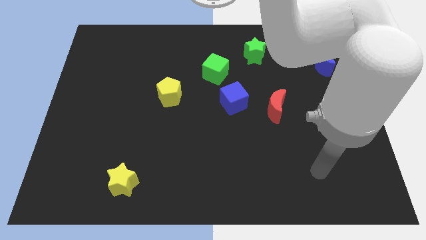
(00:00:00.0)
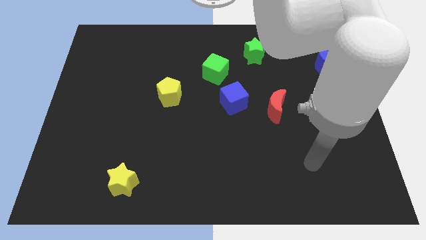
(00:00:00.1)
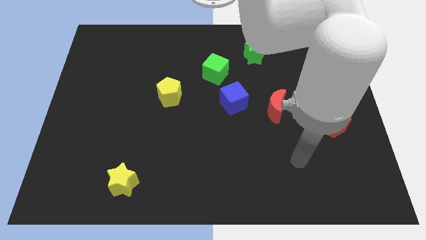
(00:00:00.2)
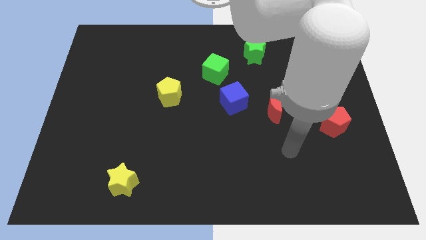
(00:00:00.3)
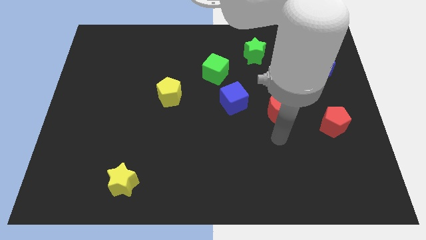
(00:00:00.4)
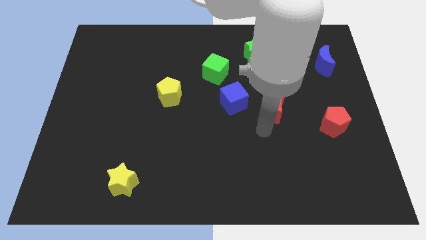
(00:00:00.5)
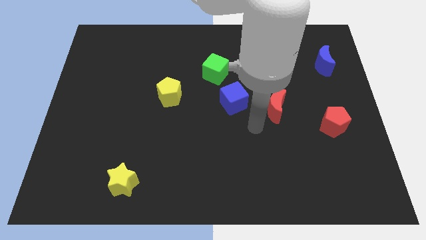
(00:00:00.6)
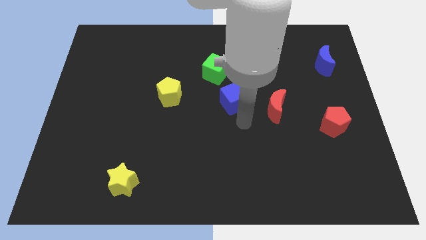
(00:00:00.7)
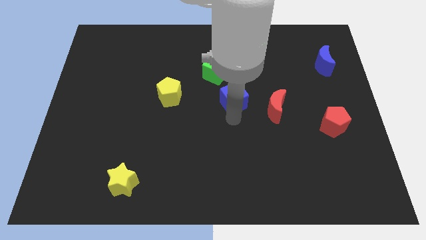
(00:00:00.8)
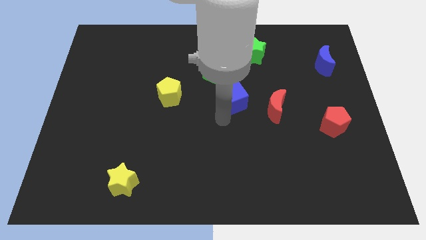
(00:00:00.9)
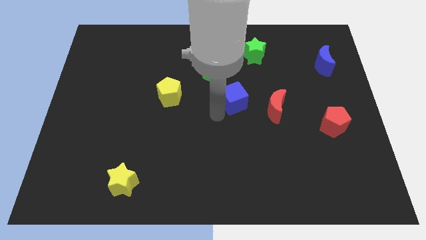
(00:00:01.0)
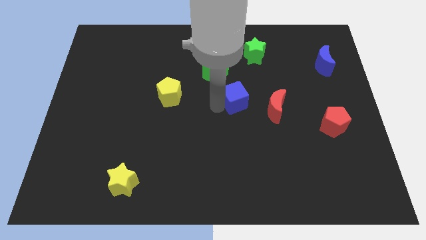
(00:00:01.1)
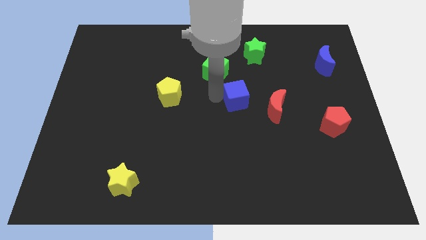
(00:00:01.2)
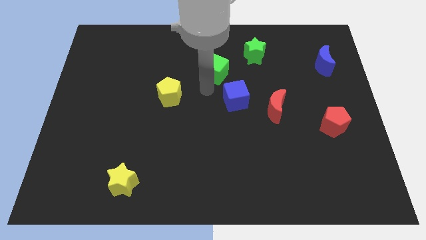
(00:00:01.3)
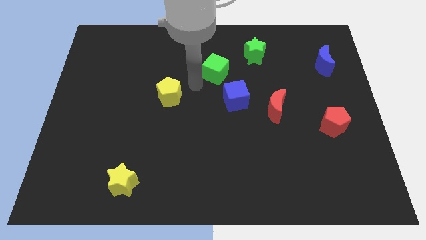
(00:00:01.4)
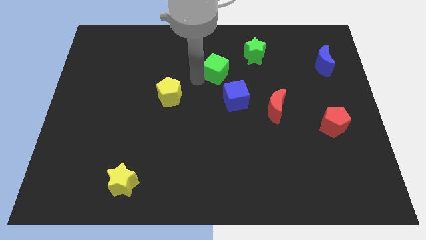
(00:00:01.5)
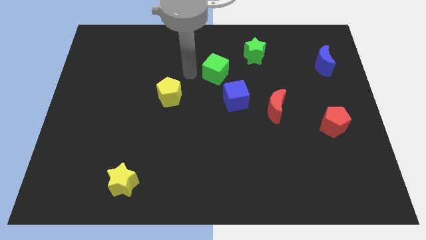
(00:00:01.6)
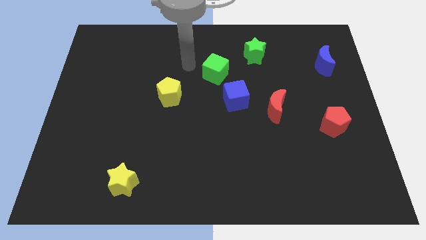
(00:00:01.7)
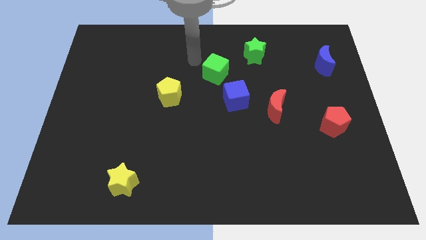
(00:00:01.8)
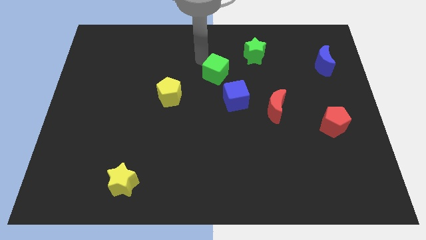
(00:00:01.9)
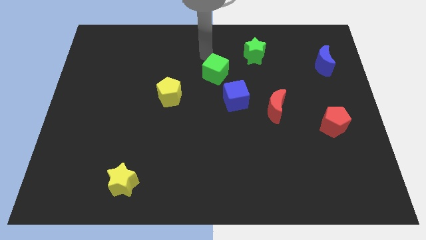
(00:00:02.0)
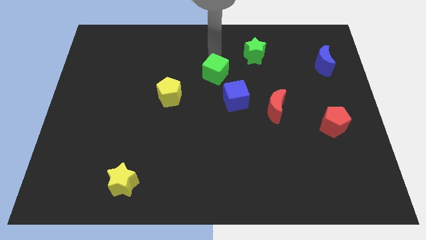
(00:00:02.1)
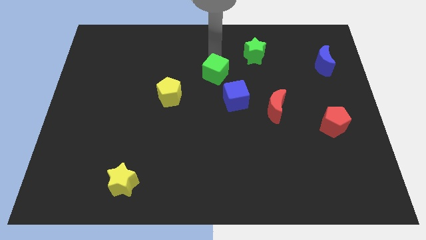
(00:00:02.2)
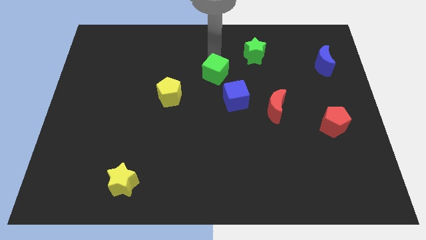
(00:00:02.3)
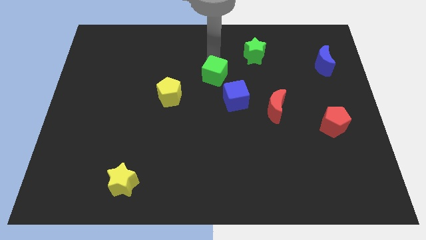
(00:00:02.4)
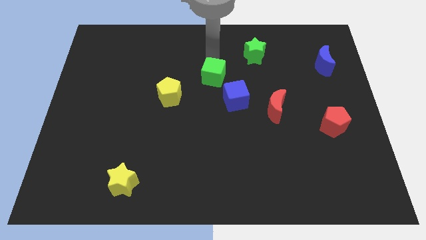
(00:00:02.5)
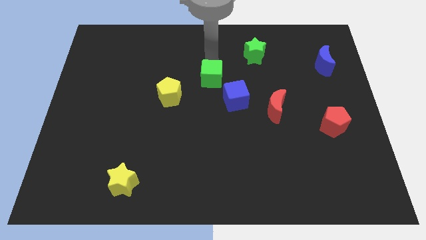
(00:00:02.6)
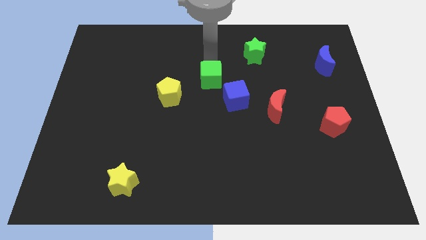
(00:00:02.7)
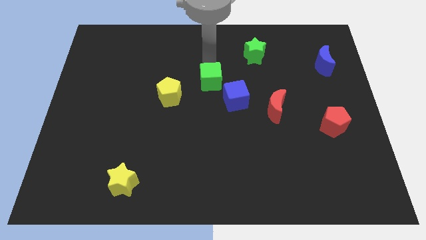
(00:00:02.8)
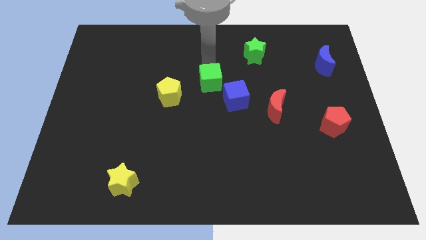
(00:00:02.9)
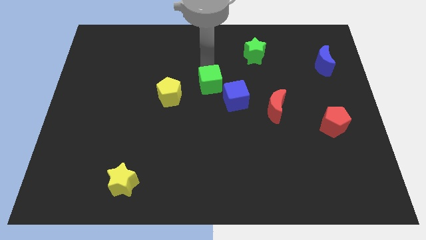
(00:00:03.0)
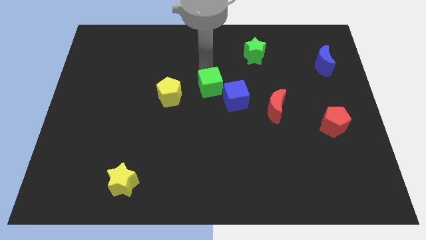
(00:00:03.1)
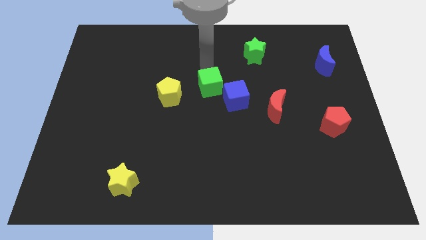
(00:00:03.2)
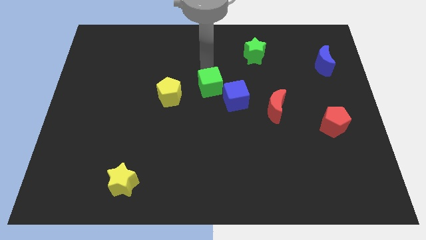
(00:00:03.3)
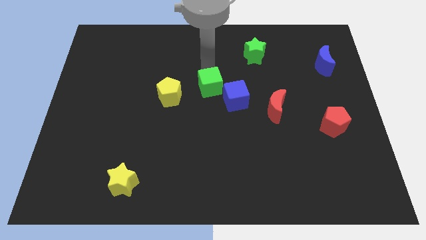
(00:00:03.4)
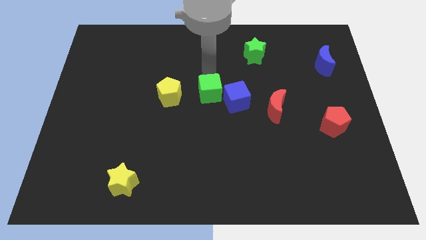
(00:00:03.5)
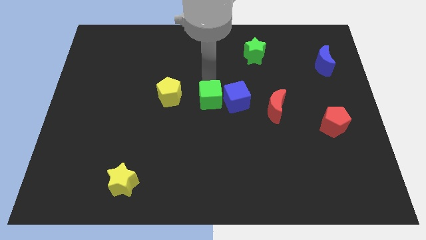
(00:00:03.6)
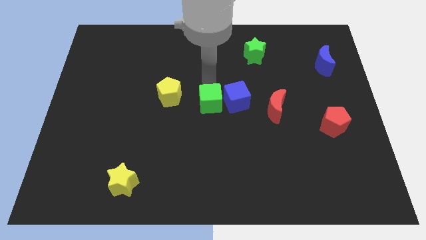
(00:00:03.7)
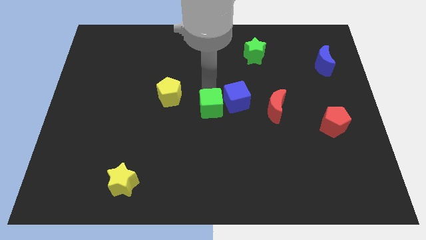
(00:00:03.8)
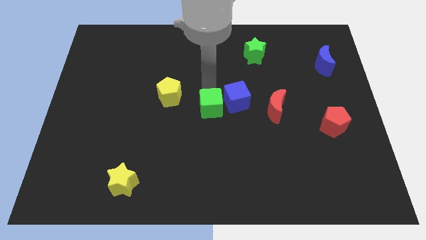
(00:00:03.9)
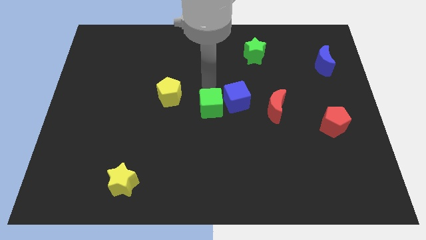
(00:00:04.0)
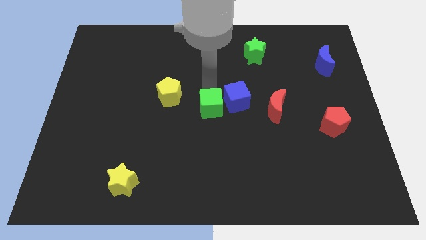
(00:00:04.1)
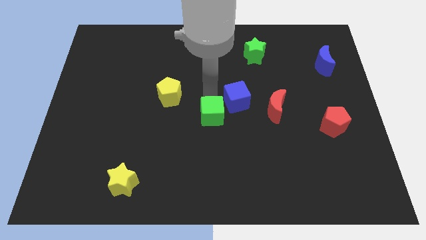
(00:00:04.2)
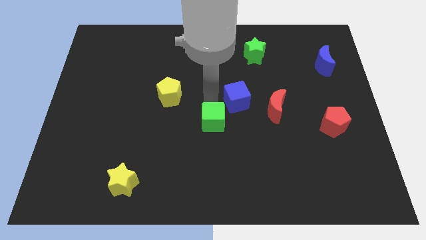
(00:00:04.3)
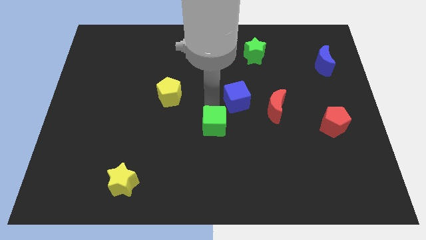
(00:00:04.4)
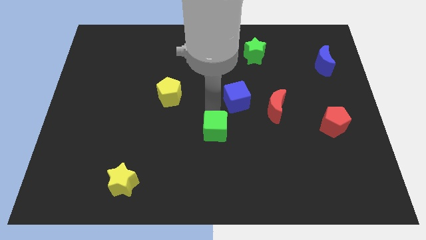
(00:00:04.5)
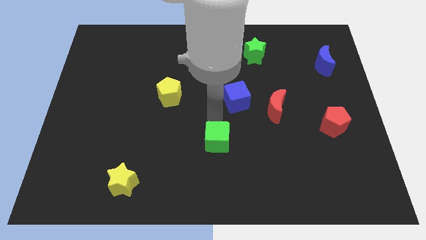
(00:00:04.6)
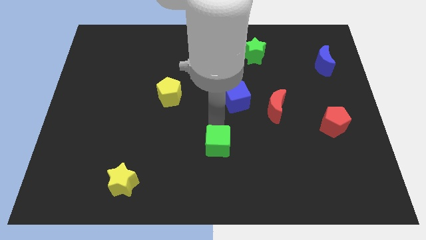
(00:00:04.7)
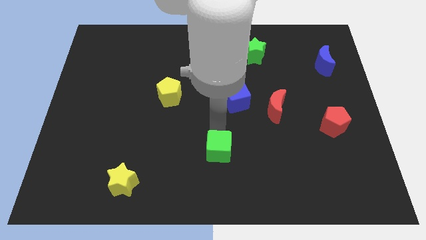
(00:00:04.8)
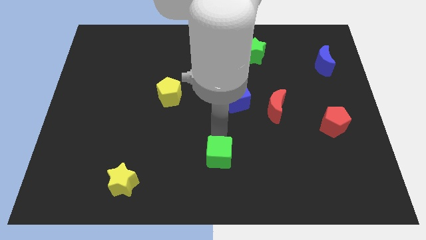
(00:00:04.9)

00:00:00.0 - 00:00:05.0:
push the green cube to the bottom side

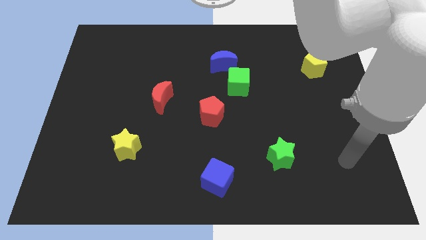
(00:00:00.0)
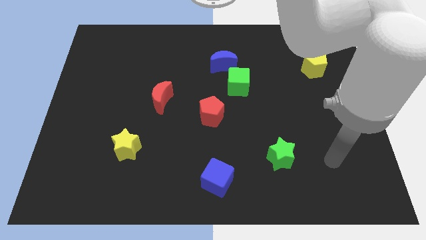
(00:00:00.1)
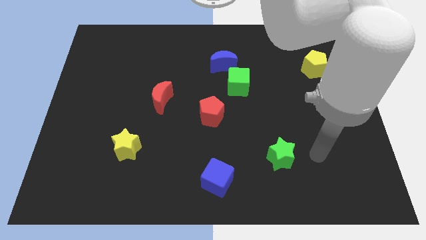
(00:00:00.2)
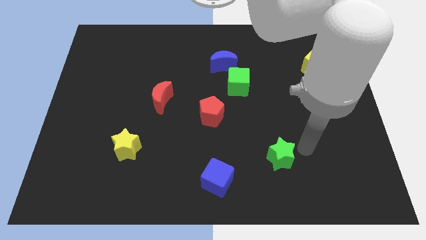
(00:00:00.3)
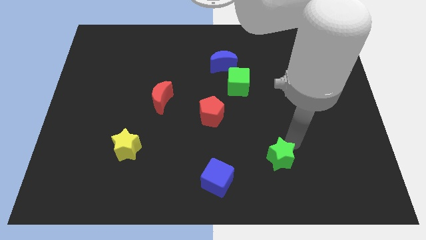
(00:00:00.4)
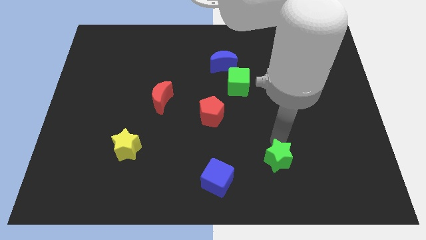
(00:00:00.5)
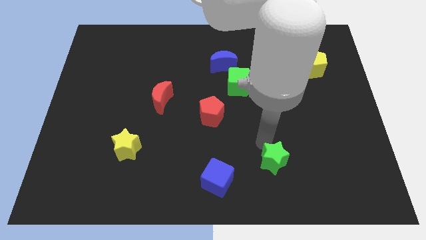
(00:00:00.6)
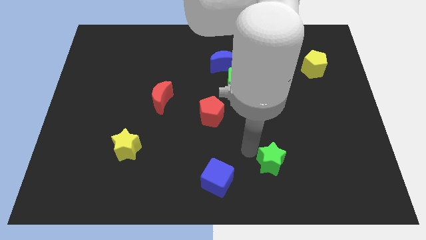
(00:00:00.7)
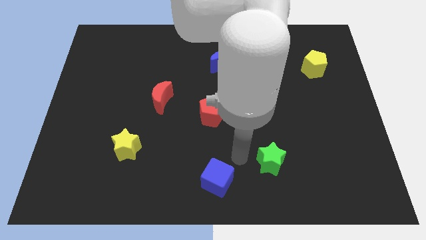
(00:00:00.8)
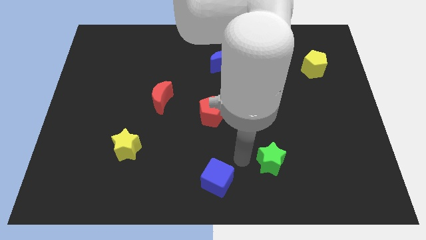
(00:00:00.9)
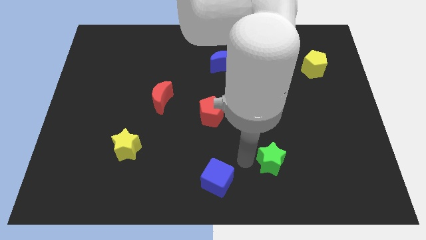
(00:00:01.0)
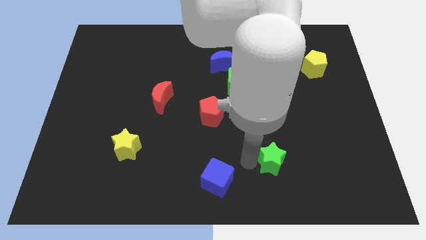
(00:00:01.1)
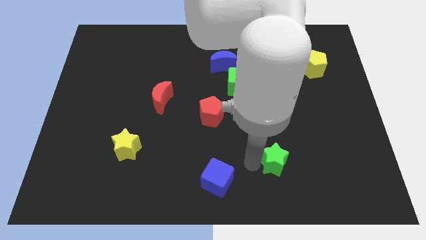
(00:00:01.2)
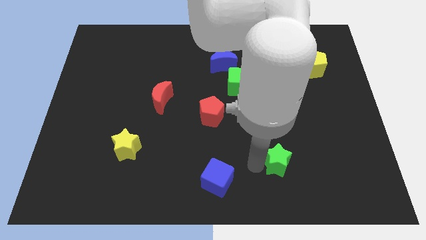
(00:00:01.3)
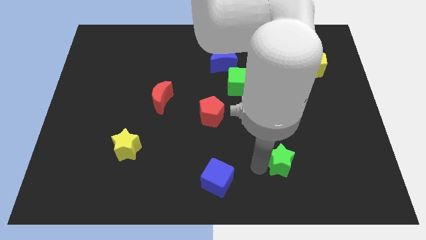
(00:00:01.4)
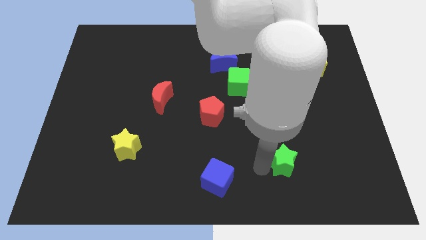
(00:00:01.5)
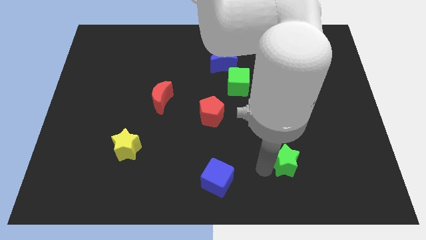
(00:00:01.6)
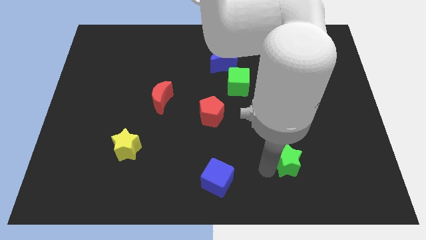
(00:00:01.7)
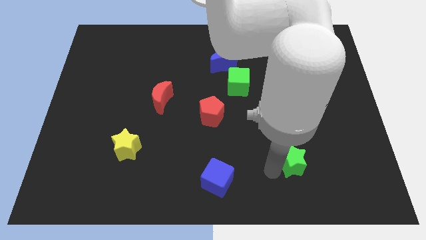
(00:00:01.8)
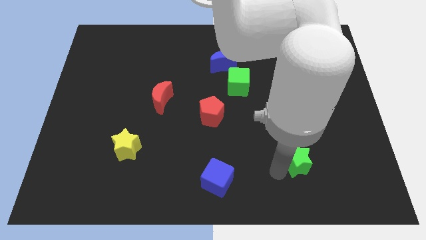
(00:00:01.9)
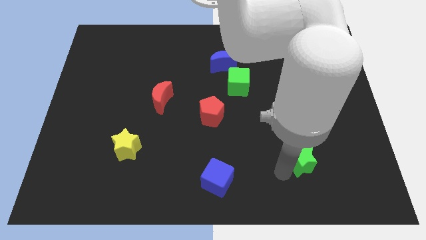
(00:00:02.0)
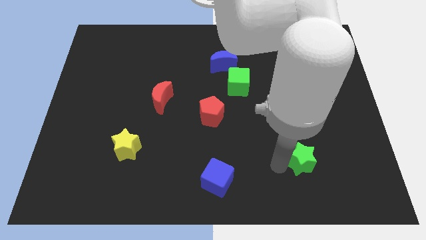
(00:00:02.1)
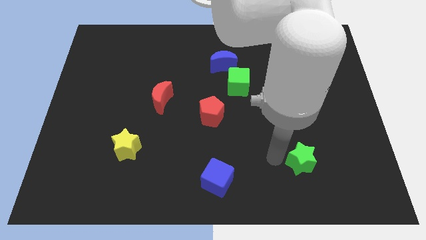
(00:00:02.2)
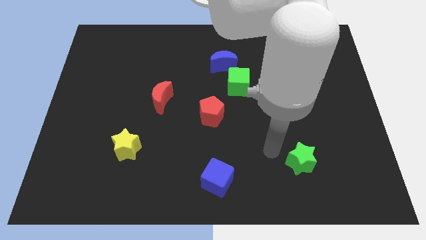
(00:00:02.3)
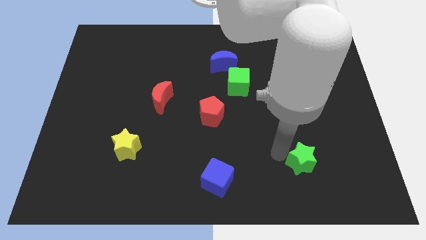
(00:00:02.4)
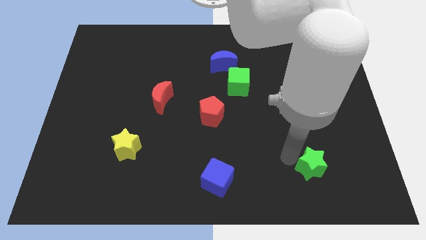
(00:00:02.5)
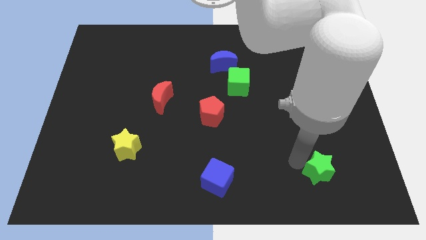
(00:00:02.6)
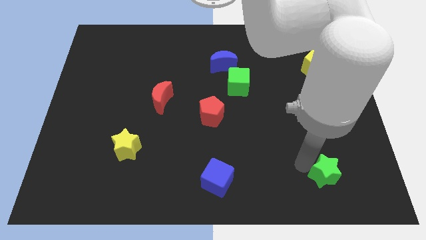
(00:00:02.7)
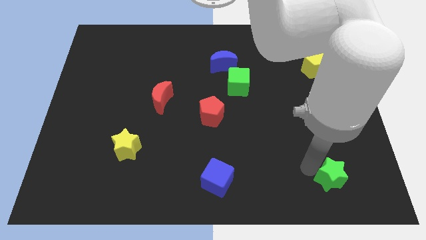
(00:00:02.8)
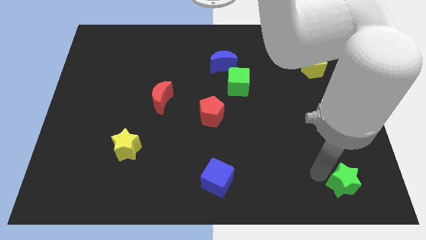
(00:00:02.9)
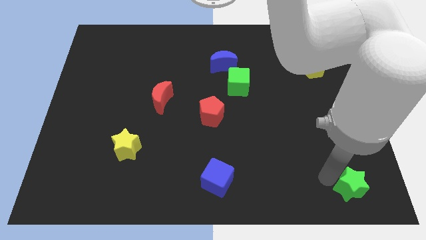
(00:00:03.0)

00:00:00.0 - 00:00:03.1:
move the green star to the bottom right of the board
